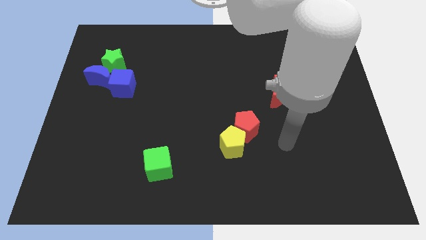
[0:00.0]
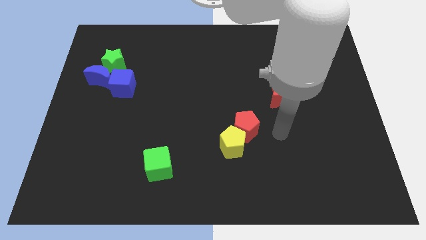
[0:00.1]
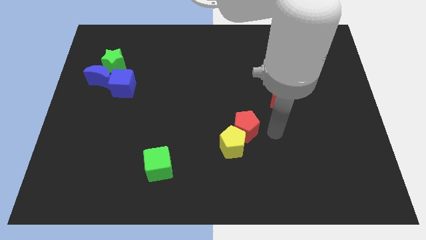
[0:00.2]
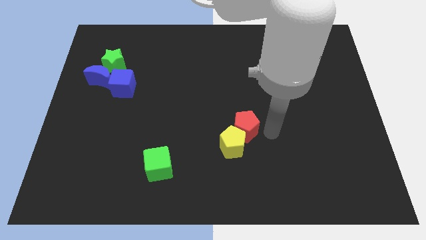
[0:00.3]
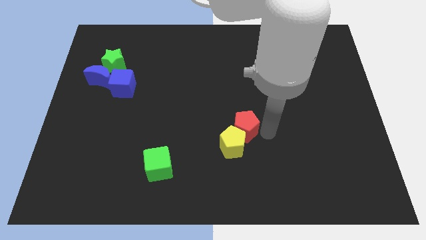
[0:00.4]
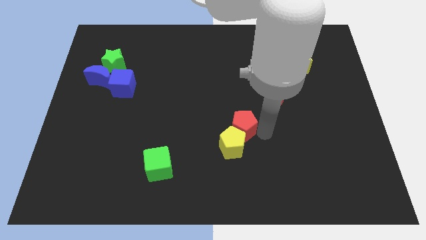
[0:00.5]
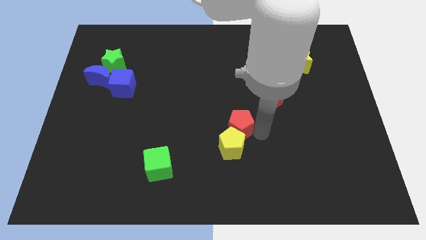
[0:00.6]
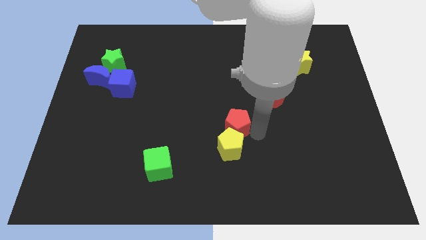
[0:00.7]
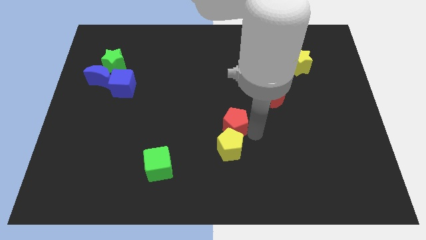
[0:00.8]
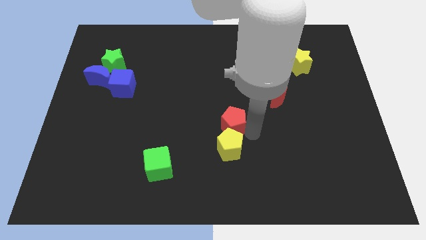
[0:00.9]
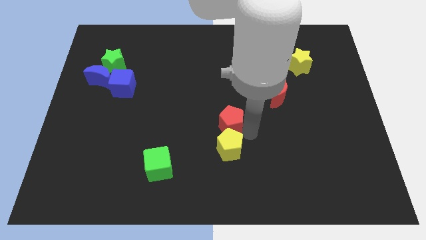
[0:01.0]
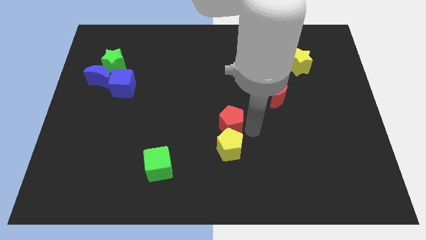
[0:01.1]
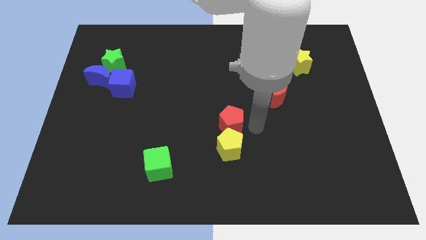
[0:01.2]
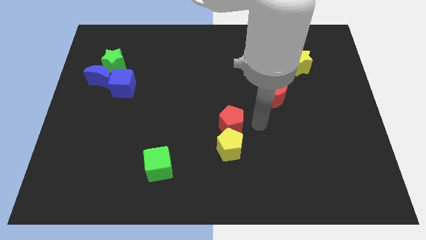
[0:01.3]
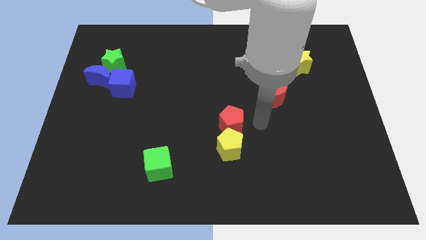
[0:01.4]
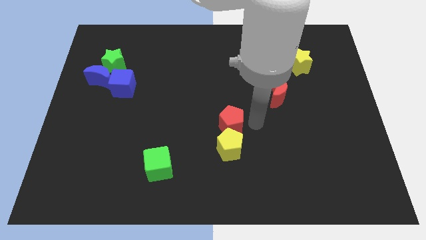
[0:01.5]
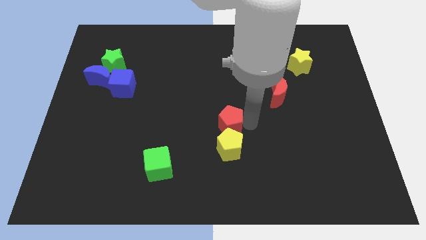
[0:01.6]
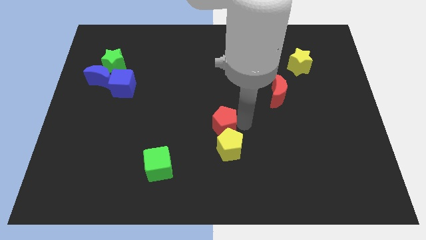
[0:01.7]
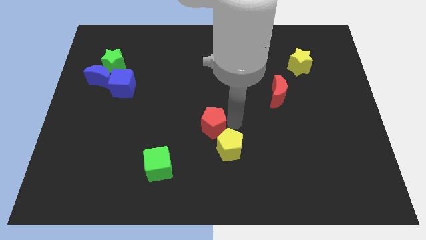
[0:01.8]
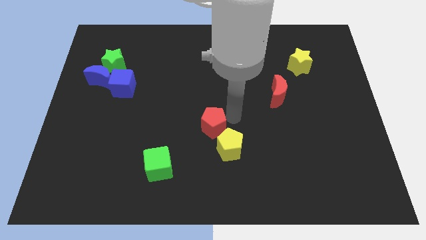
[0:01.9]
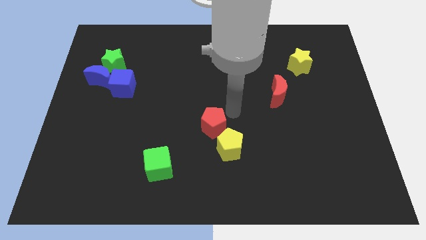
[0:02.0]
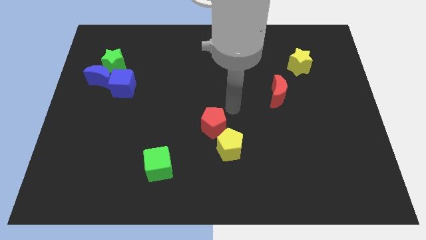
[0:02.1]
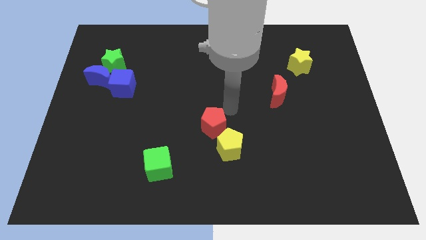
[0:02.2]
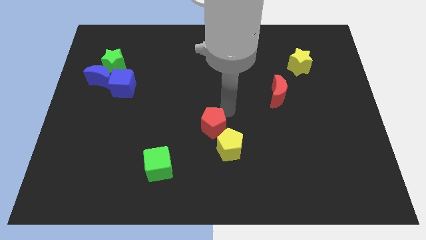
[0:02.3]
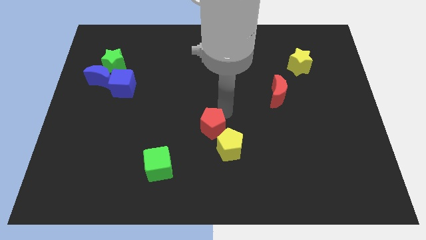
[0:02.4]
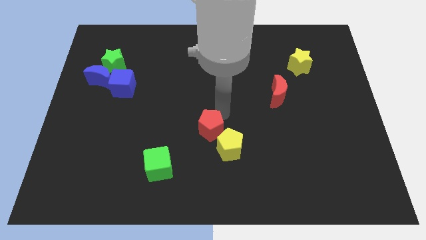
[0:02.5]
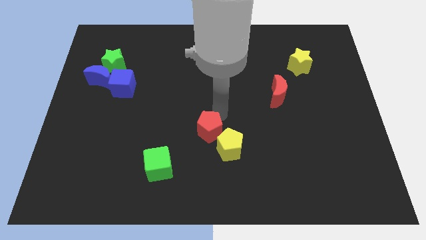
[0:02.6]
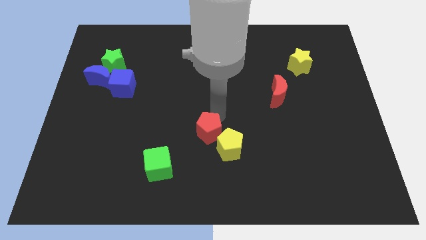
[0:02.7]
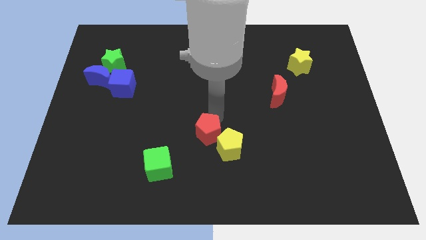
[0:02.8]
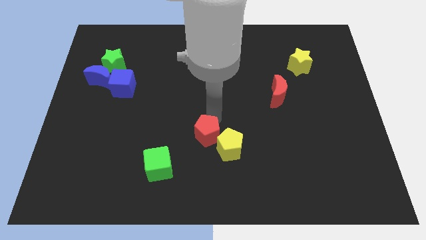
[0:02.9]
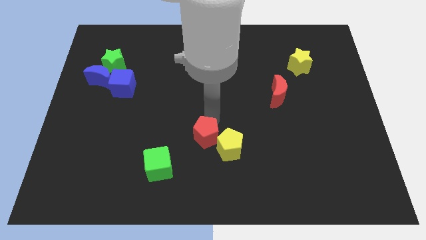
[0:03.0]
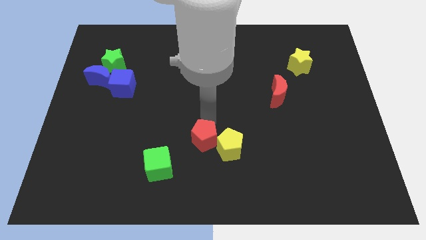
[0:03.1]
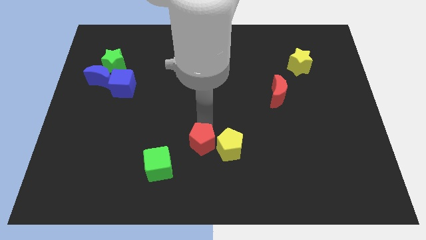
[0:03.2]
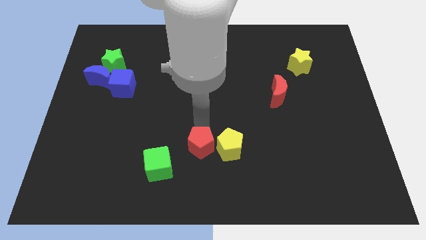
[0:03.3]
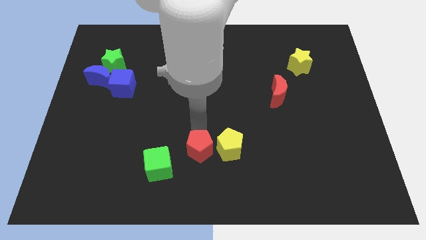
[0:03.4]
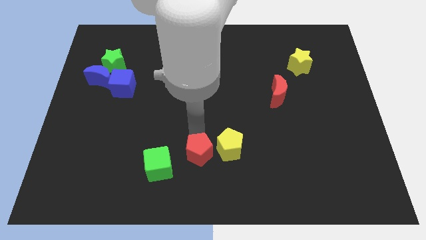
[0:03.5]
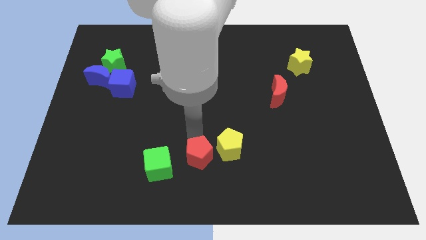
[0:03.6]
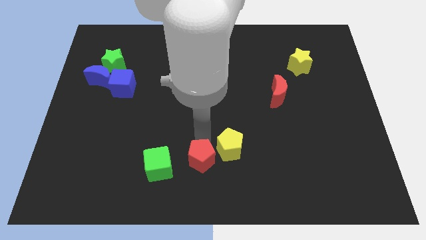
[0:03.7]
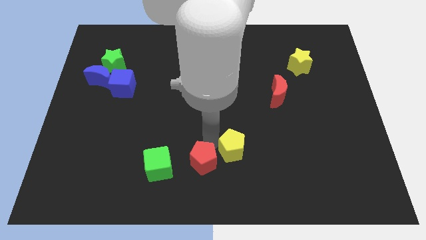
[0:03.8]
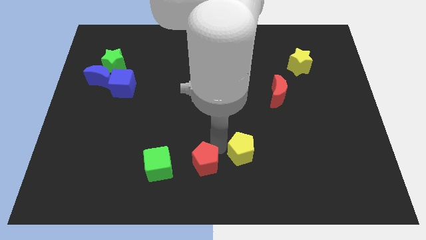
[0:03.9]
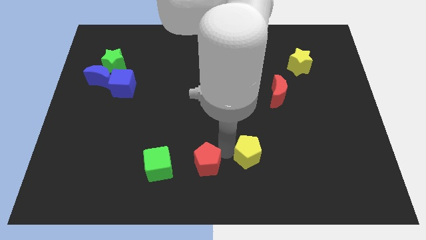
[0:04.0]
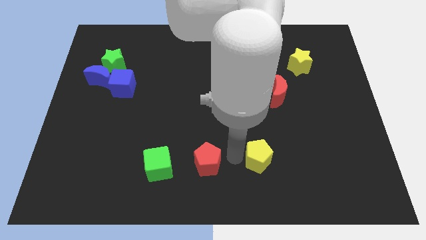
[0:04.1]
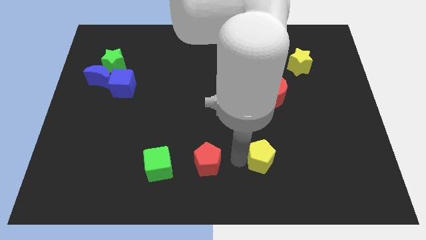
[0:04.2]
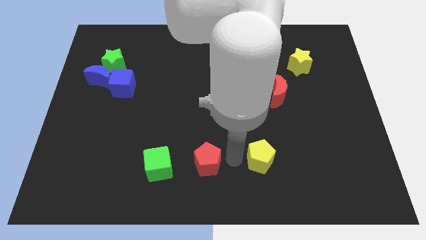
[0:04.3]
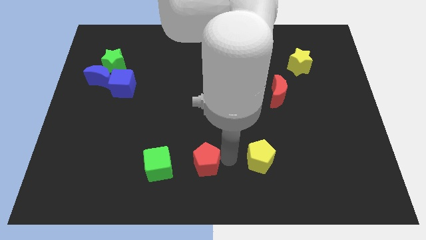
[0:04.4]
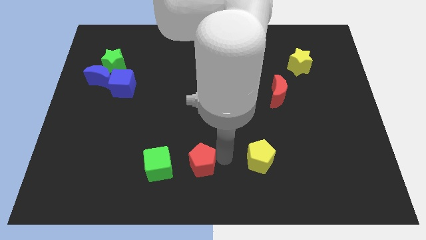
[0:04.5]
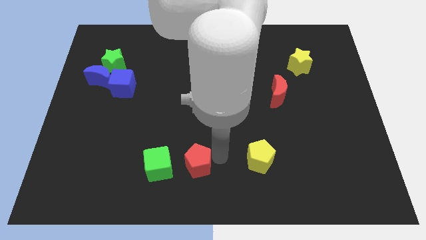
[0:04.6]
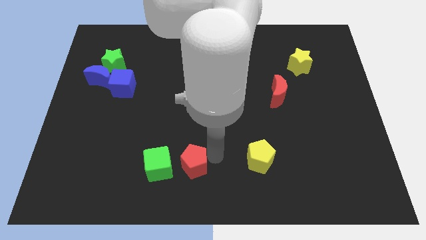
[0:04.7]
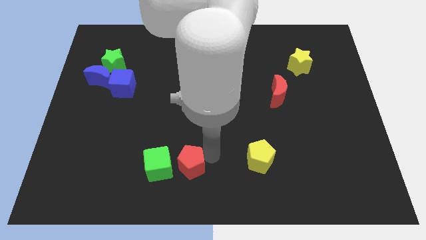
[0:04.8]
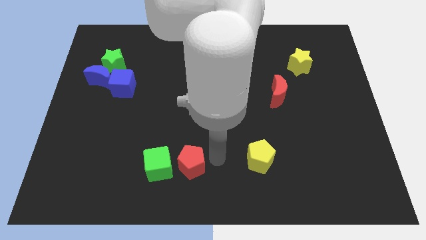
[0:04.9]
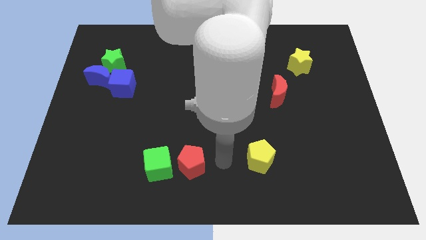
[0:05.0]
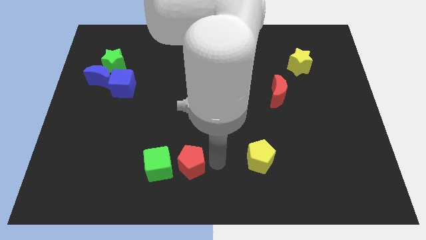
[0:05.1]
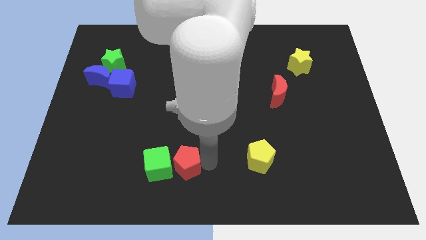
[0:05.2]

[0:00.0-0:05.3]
push the red pentagon towards the green cube

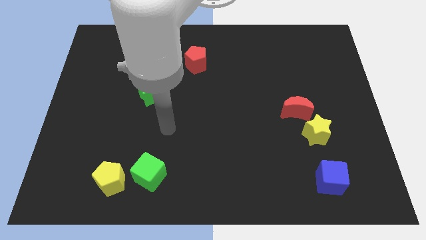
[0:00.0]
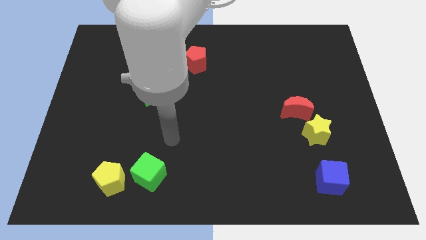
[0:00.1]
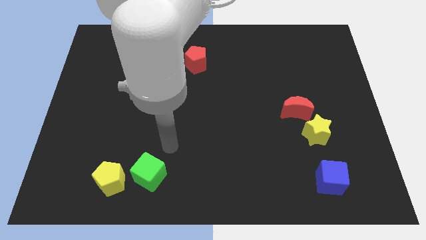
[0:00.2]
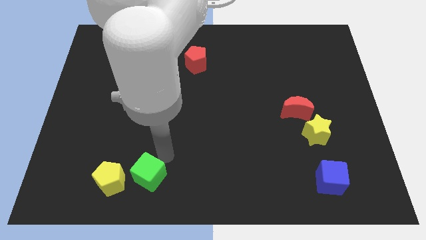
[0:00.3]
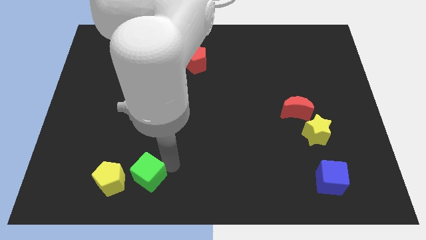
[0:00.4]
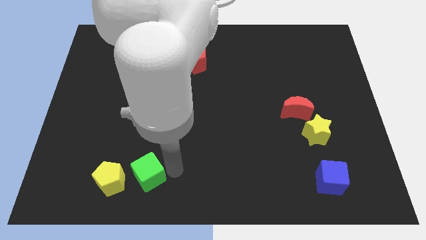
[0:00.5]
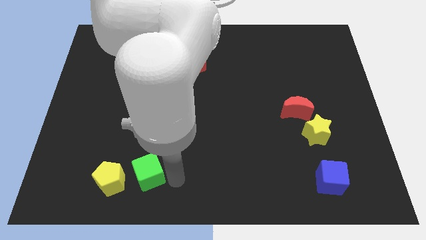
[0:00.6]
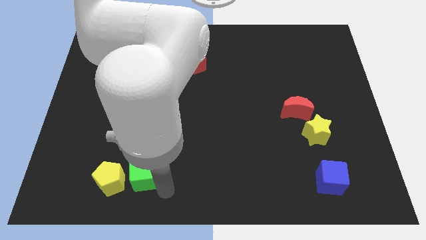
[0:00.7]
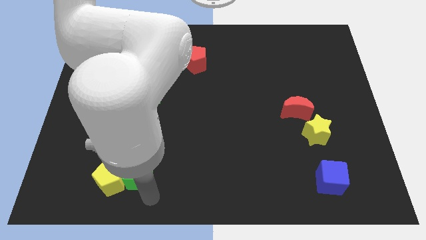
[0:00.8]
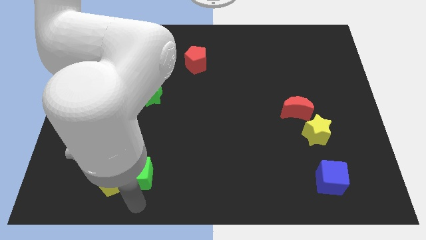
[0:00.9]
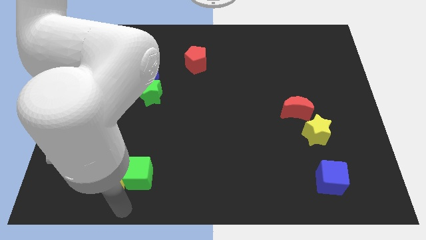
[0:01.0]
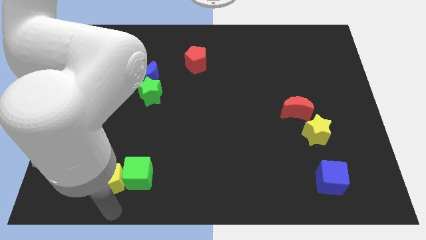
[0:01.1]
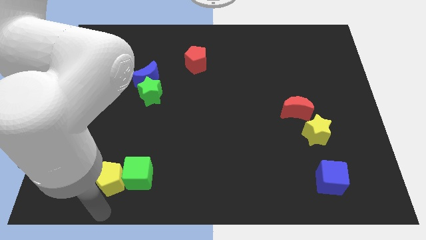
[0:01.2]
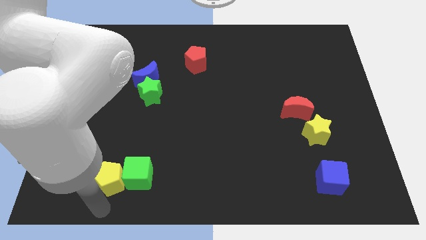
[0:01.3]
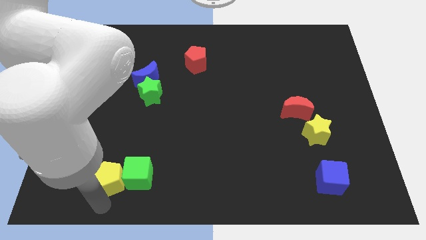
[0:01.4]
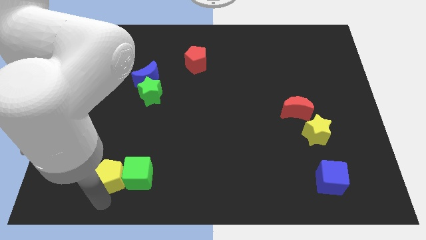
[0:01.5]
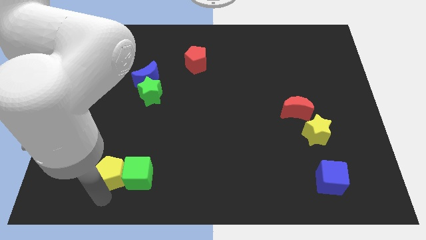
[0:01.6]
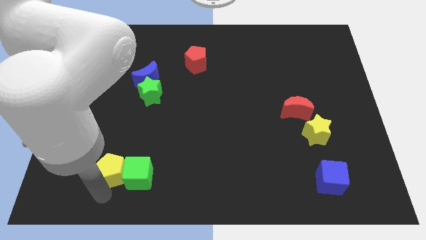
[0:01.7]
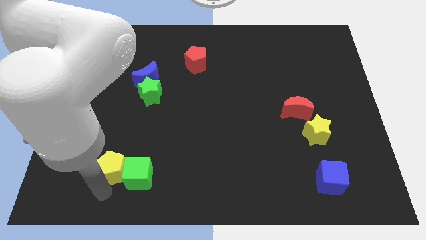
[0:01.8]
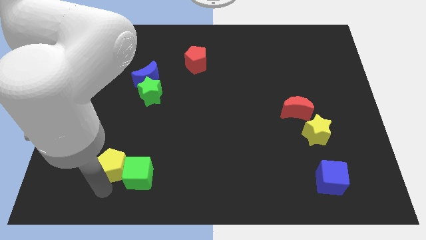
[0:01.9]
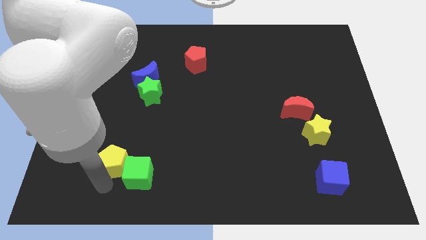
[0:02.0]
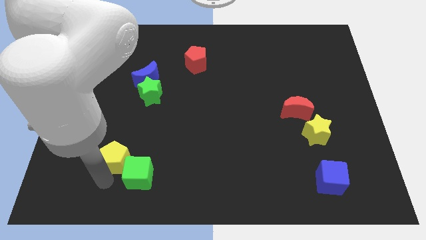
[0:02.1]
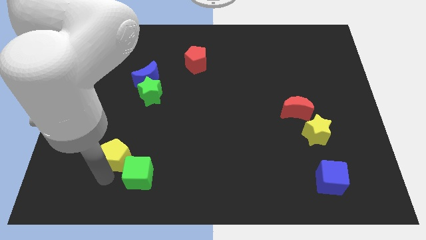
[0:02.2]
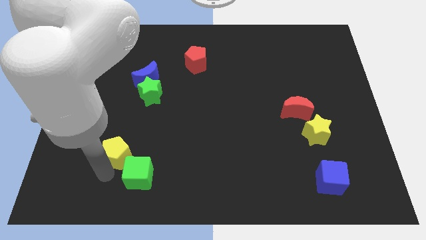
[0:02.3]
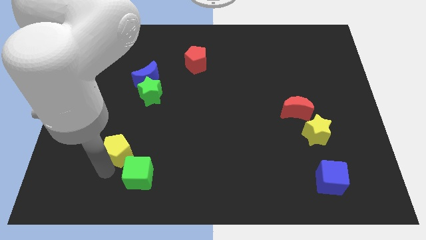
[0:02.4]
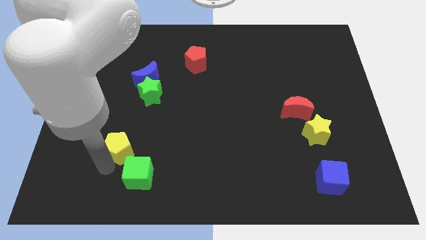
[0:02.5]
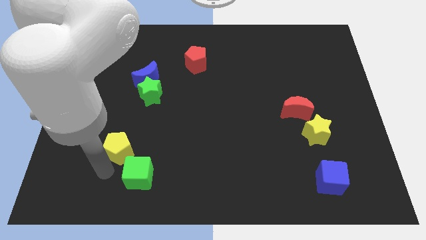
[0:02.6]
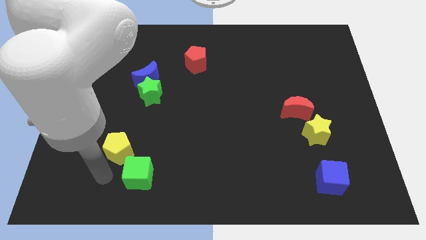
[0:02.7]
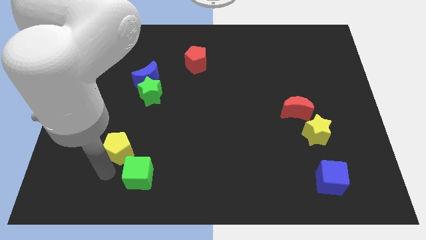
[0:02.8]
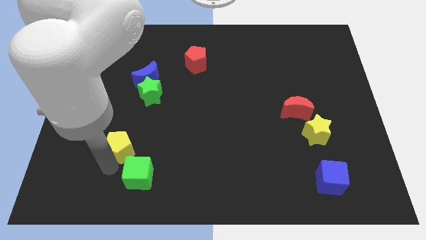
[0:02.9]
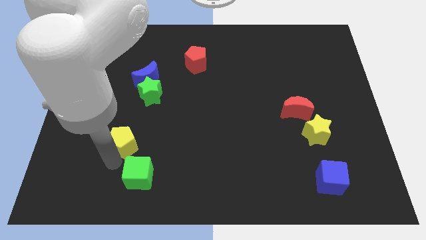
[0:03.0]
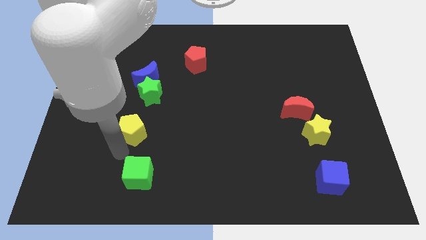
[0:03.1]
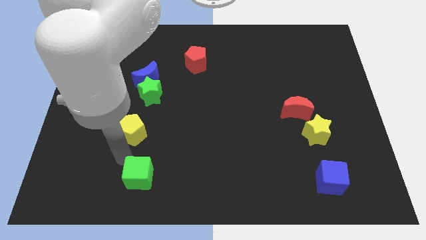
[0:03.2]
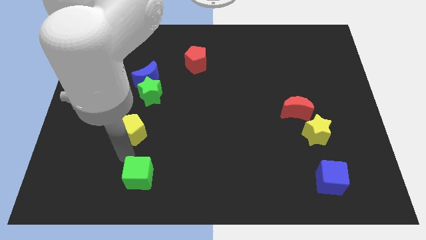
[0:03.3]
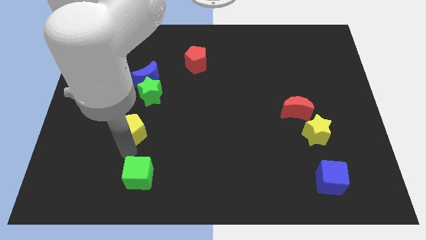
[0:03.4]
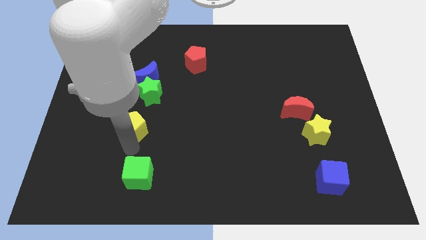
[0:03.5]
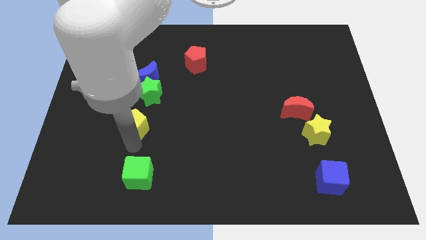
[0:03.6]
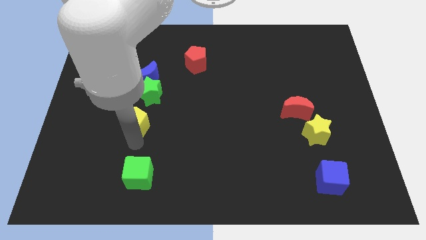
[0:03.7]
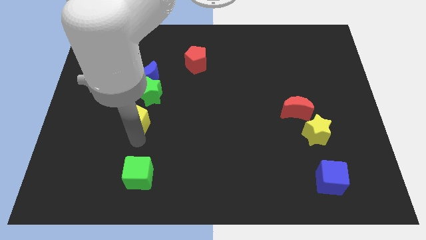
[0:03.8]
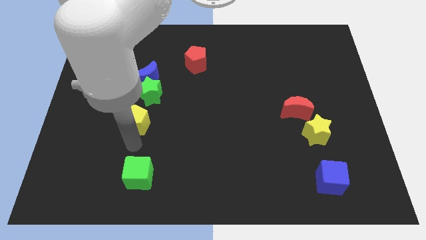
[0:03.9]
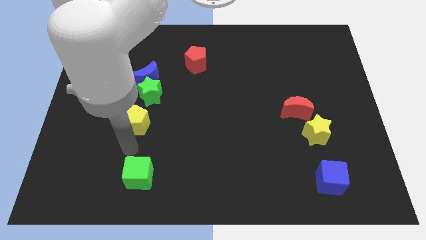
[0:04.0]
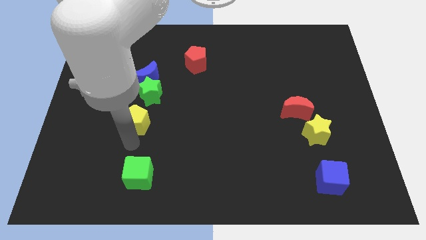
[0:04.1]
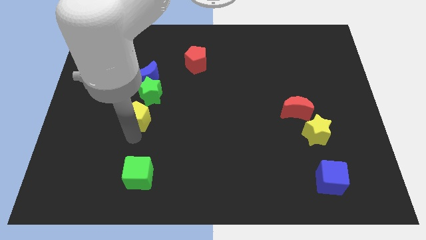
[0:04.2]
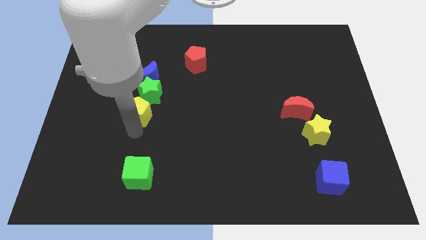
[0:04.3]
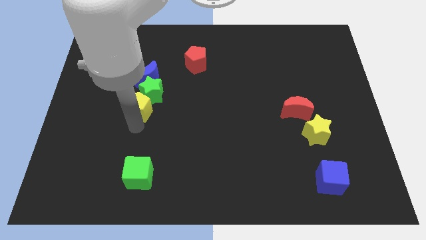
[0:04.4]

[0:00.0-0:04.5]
move the yellow pentagon to the green star
